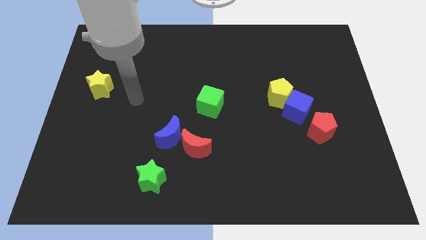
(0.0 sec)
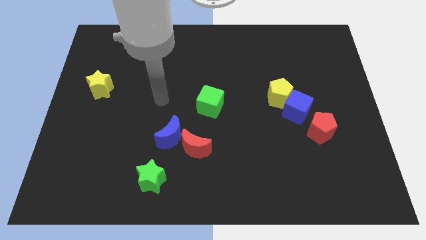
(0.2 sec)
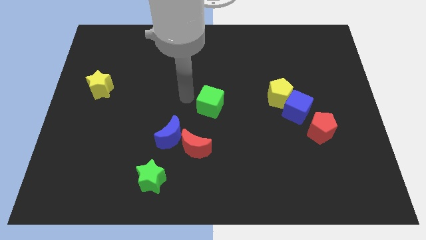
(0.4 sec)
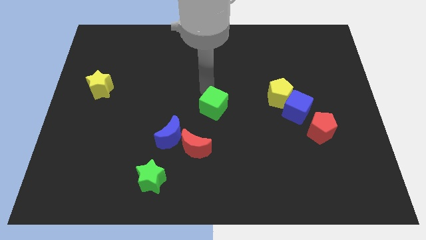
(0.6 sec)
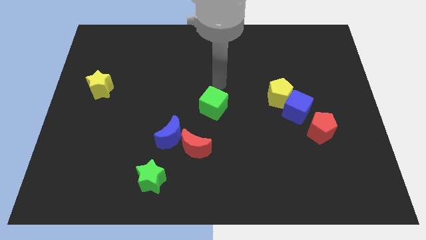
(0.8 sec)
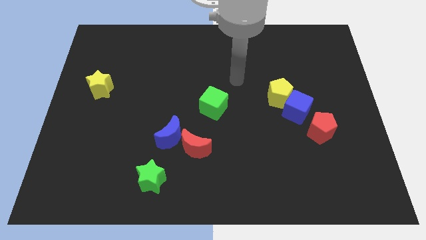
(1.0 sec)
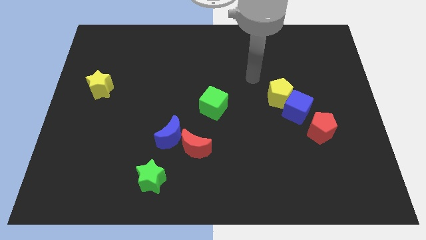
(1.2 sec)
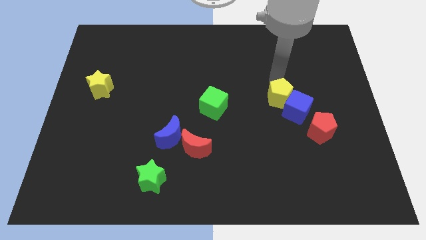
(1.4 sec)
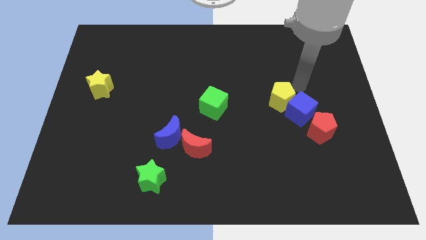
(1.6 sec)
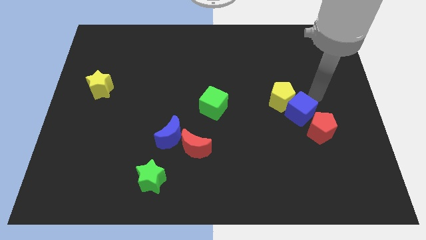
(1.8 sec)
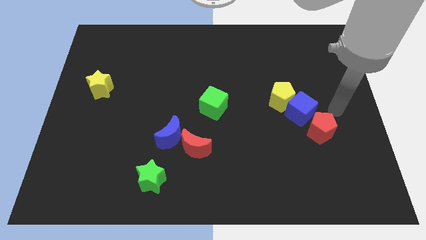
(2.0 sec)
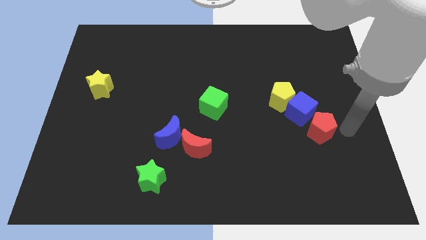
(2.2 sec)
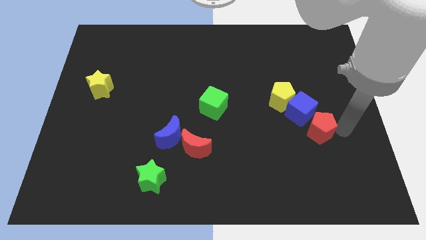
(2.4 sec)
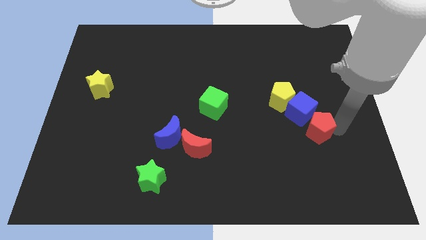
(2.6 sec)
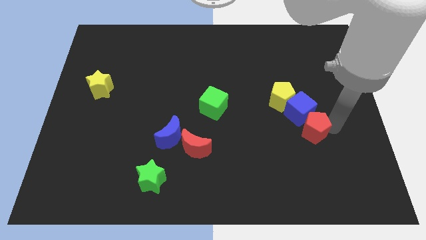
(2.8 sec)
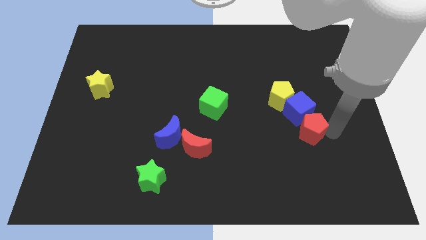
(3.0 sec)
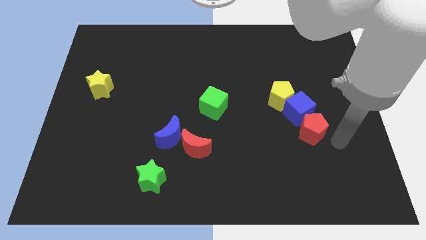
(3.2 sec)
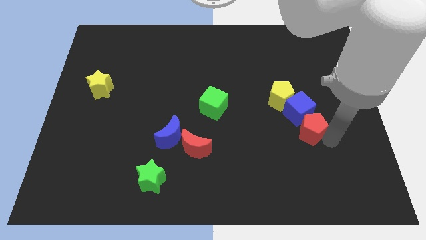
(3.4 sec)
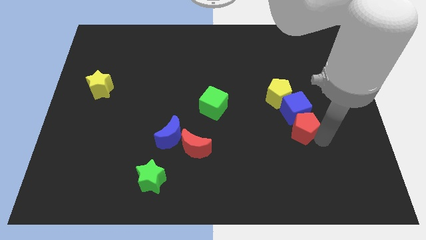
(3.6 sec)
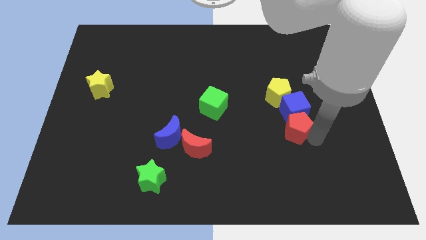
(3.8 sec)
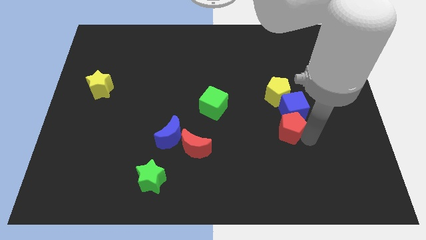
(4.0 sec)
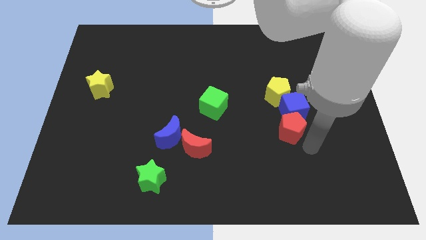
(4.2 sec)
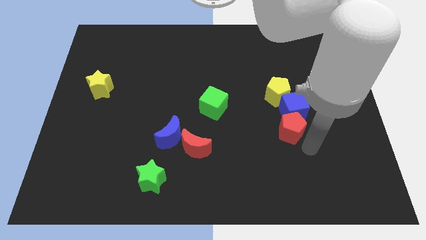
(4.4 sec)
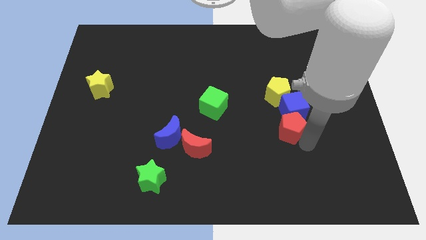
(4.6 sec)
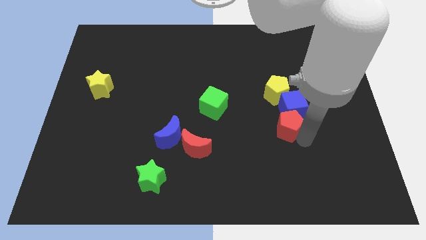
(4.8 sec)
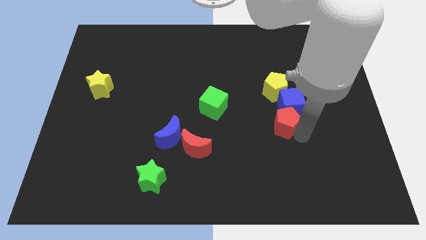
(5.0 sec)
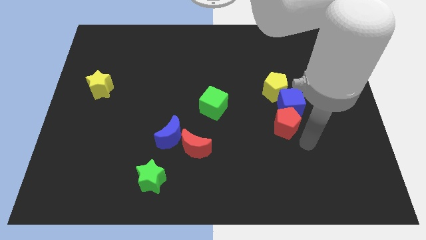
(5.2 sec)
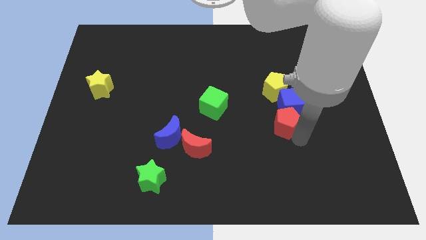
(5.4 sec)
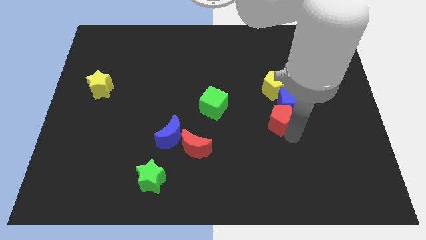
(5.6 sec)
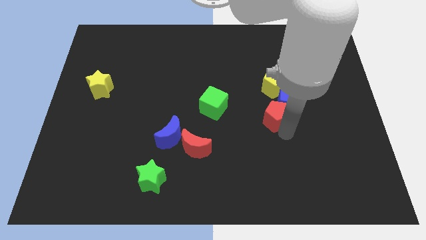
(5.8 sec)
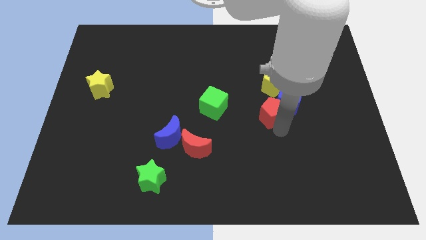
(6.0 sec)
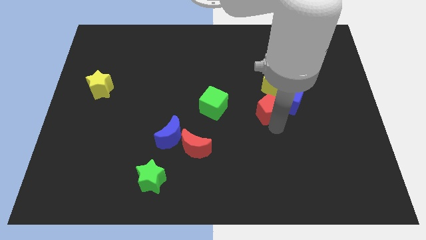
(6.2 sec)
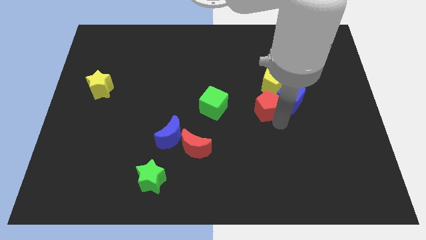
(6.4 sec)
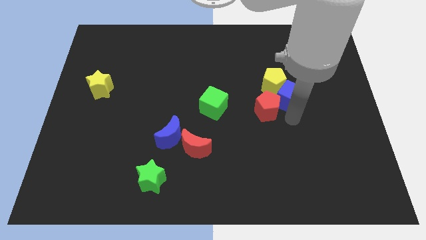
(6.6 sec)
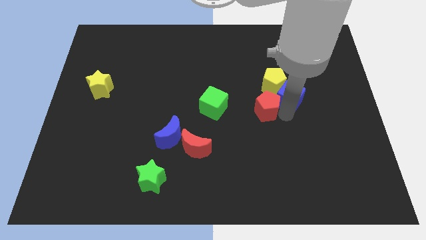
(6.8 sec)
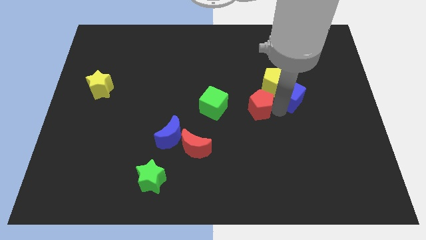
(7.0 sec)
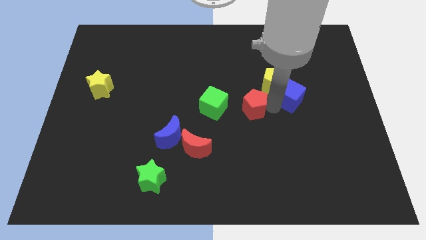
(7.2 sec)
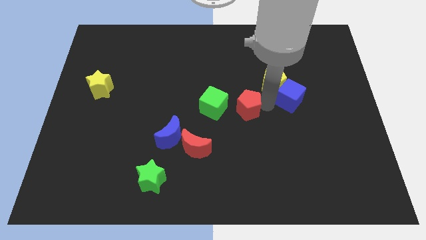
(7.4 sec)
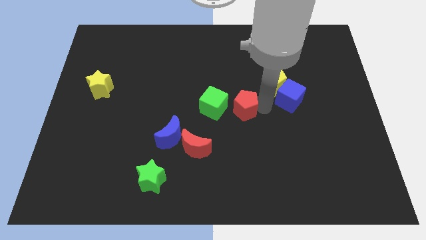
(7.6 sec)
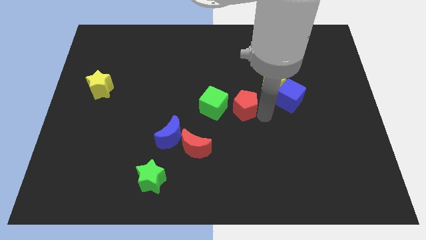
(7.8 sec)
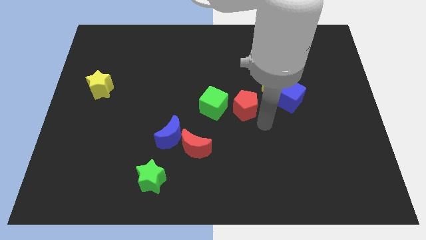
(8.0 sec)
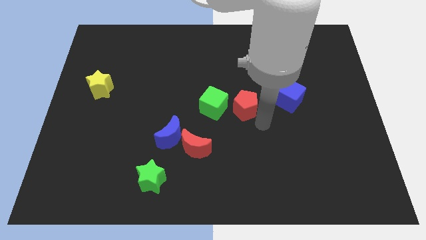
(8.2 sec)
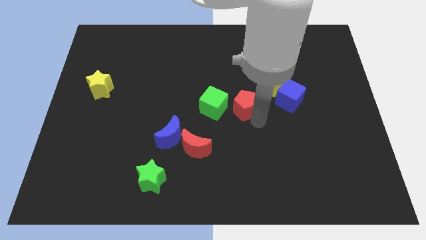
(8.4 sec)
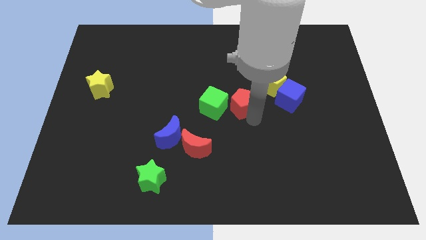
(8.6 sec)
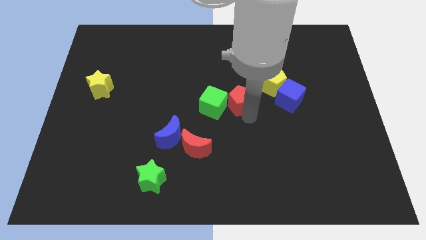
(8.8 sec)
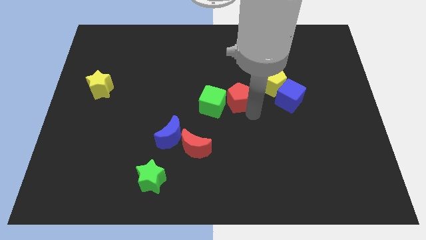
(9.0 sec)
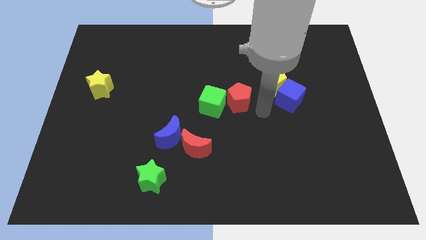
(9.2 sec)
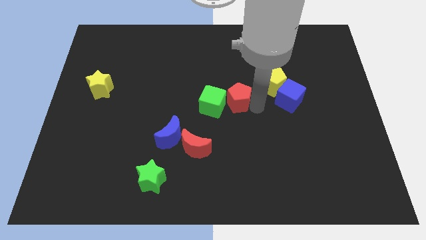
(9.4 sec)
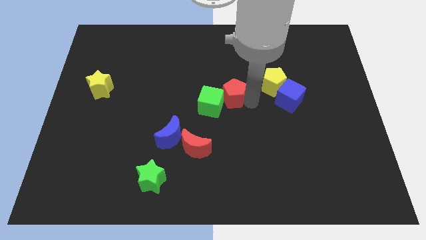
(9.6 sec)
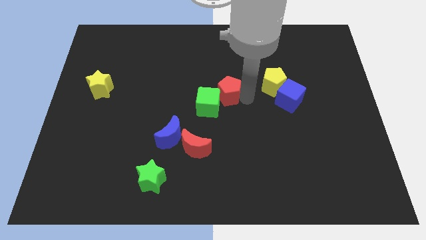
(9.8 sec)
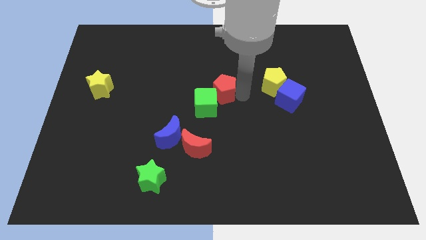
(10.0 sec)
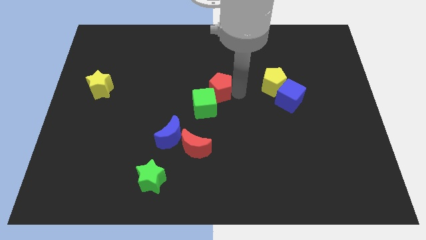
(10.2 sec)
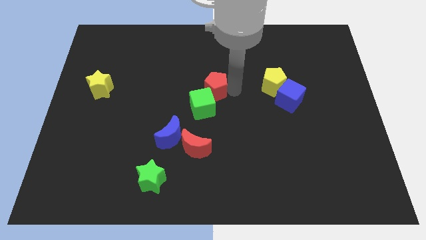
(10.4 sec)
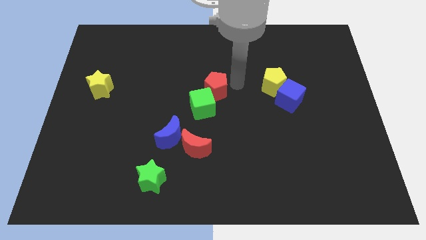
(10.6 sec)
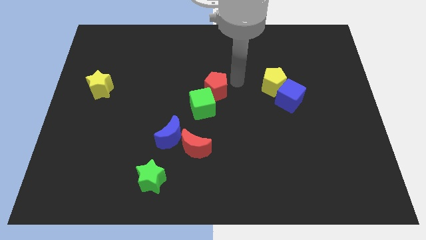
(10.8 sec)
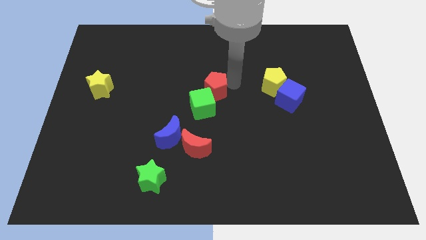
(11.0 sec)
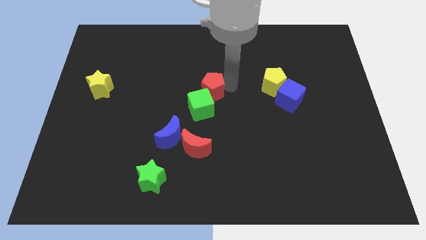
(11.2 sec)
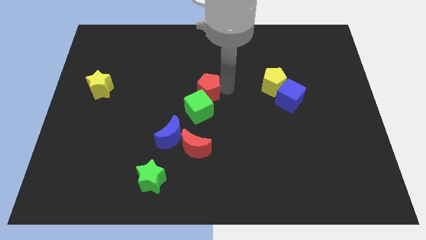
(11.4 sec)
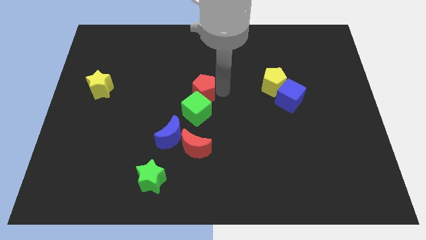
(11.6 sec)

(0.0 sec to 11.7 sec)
move the red pentagon above the red moon
